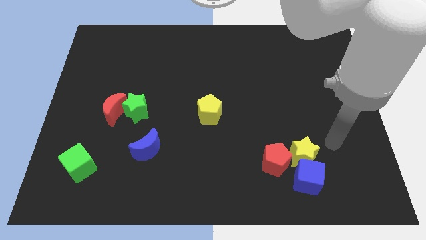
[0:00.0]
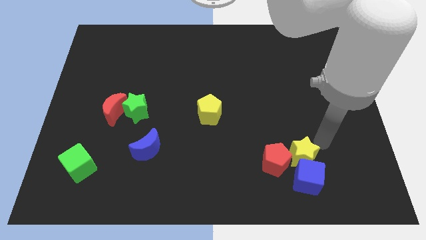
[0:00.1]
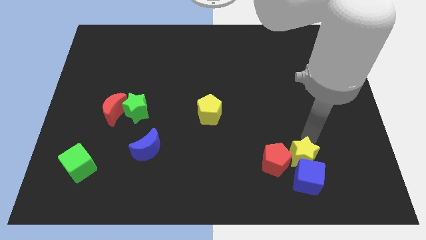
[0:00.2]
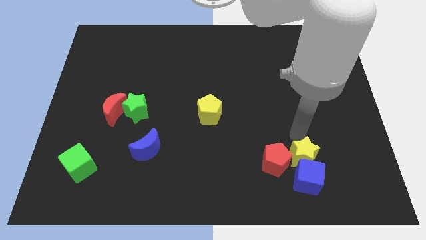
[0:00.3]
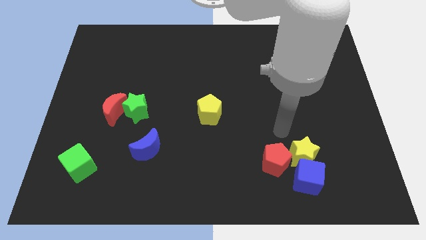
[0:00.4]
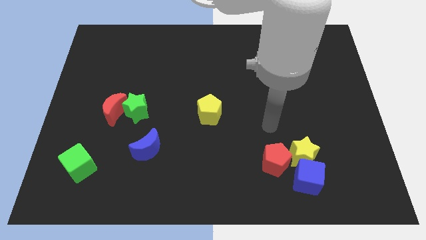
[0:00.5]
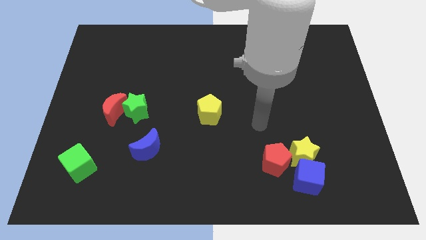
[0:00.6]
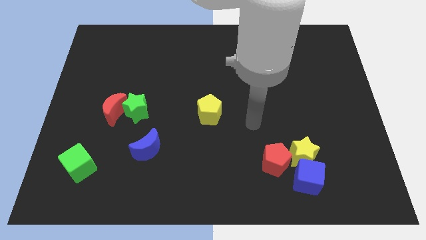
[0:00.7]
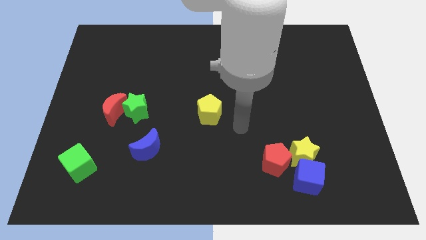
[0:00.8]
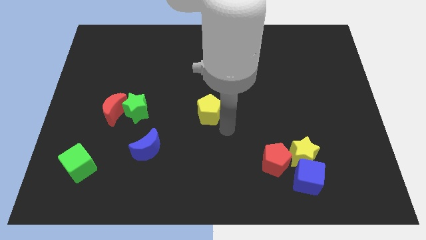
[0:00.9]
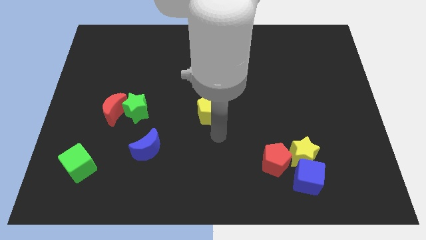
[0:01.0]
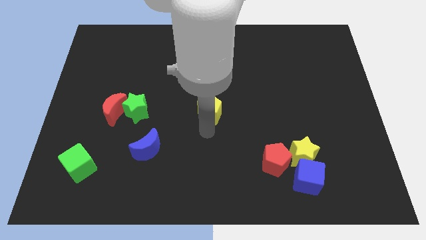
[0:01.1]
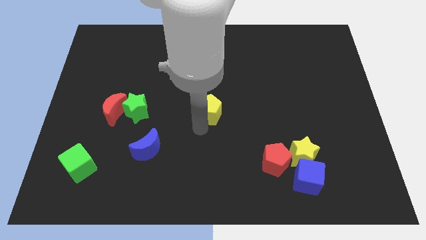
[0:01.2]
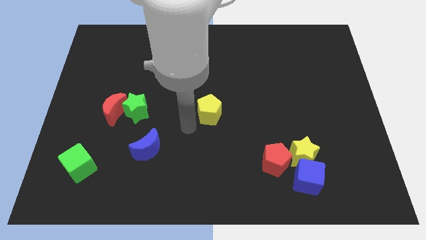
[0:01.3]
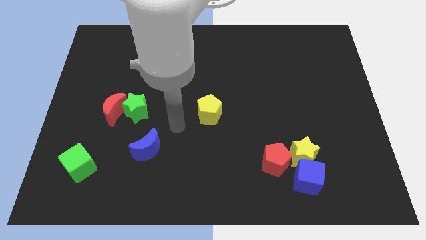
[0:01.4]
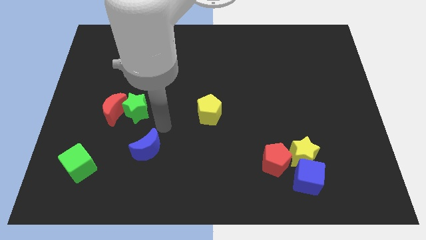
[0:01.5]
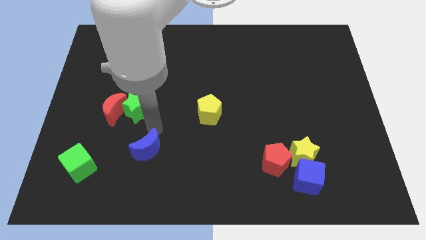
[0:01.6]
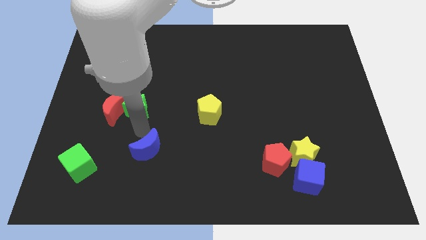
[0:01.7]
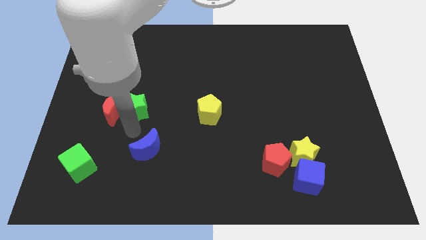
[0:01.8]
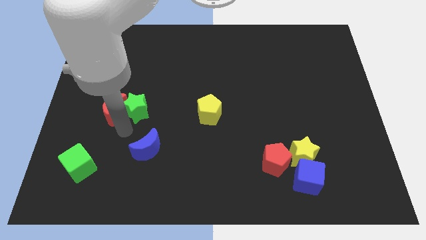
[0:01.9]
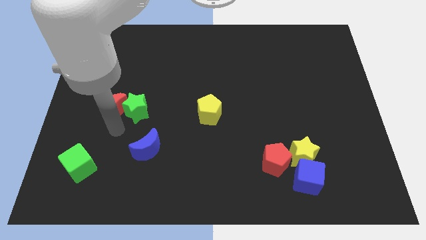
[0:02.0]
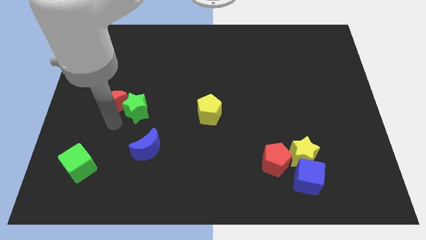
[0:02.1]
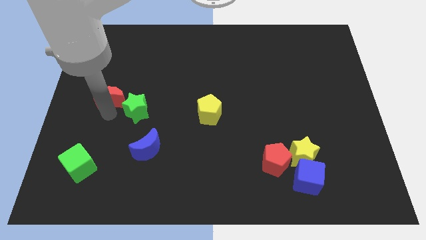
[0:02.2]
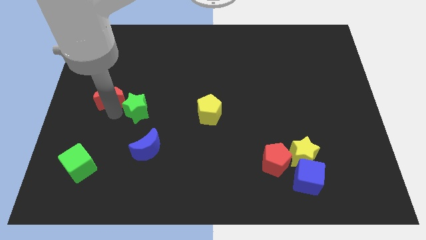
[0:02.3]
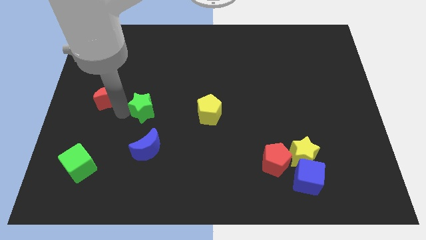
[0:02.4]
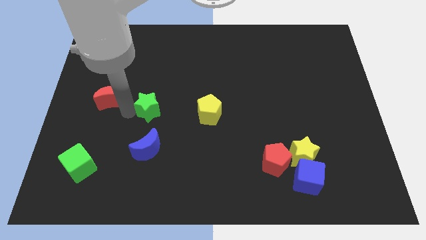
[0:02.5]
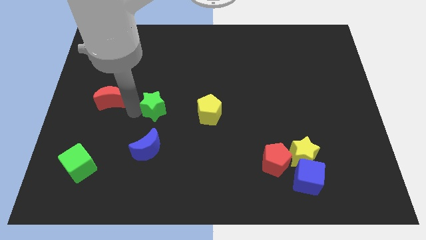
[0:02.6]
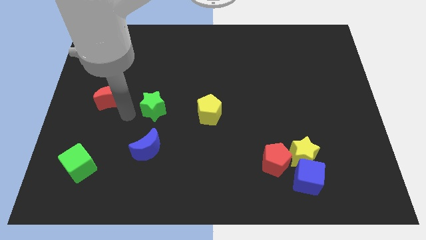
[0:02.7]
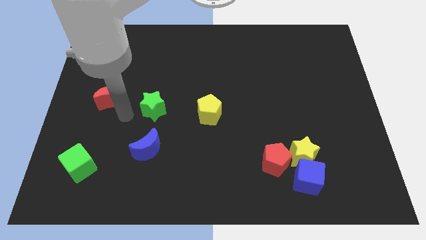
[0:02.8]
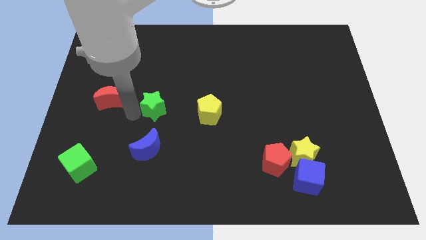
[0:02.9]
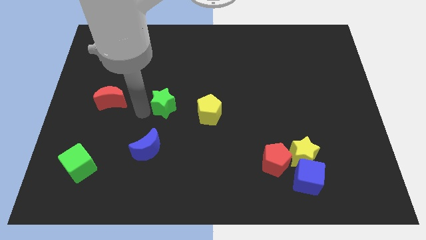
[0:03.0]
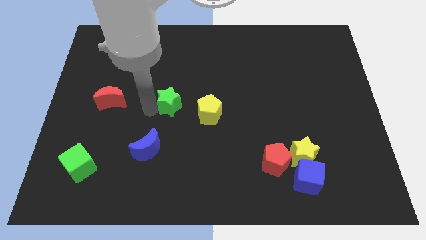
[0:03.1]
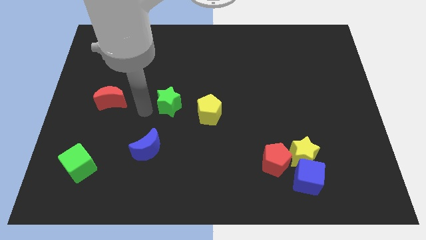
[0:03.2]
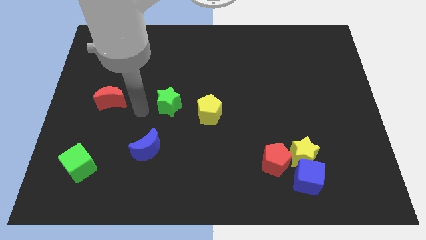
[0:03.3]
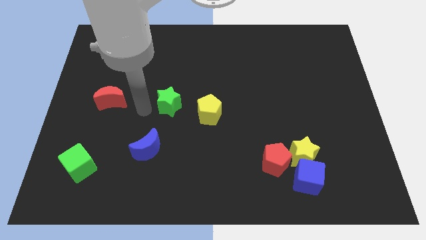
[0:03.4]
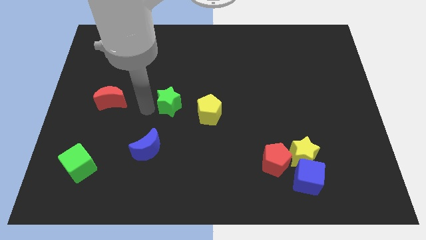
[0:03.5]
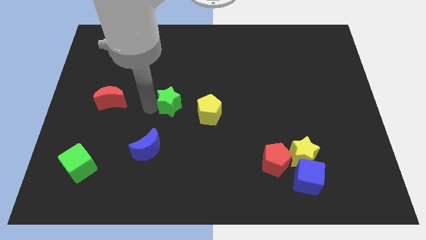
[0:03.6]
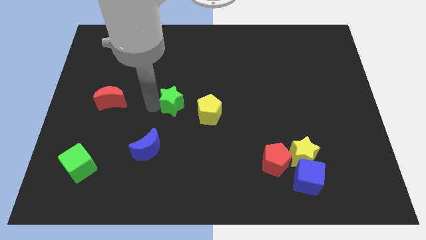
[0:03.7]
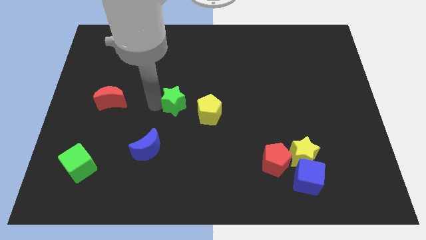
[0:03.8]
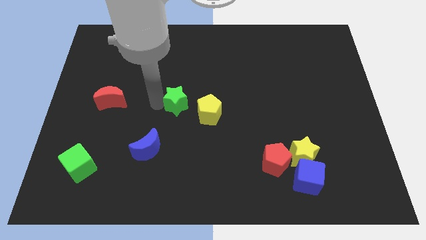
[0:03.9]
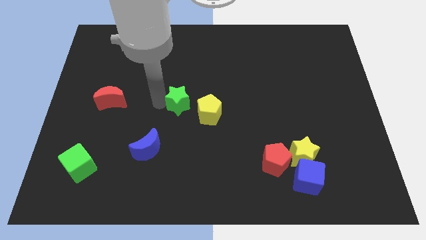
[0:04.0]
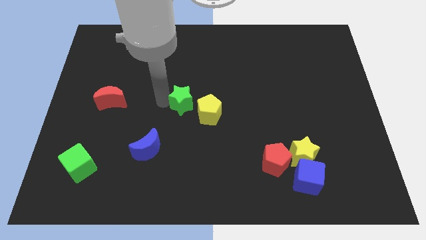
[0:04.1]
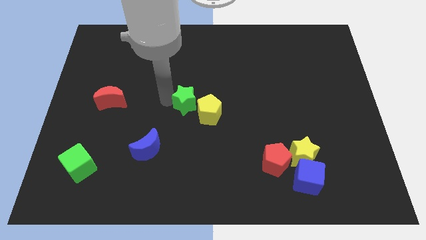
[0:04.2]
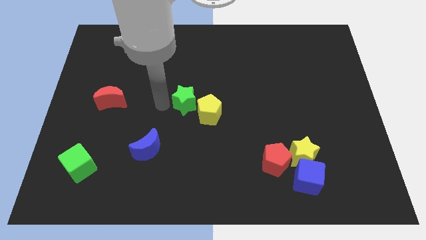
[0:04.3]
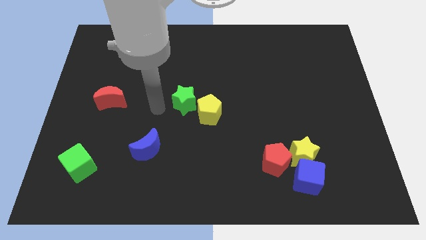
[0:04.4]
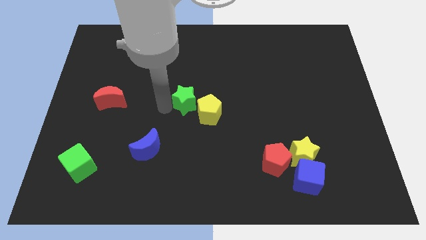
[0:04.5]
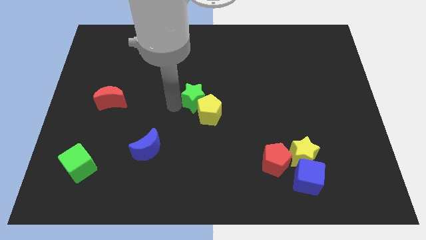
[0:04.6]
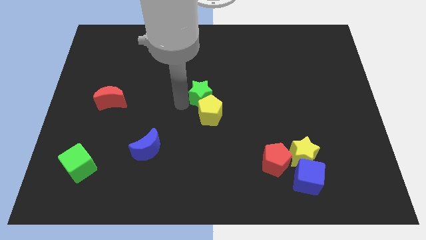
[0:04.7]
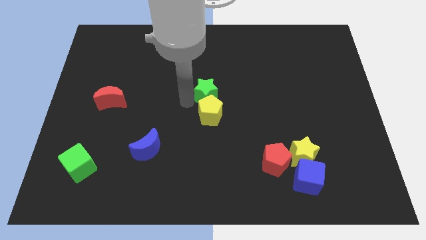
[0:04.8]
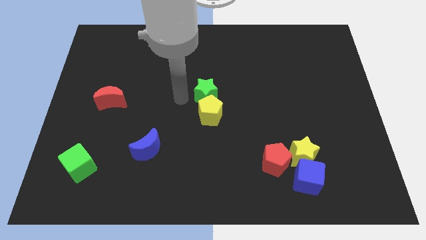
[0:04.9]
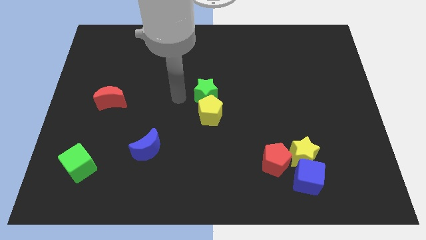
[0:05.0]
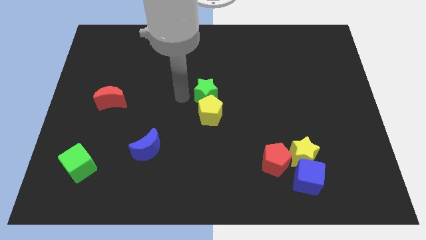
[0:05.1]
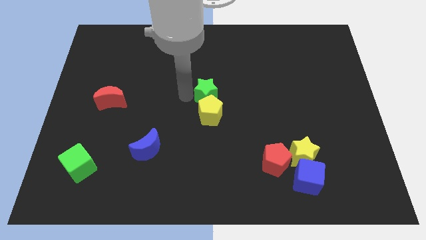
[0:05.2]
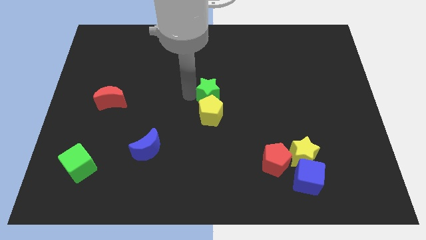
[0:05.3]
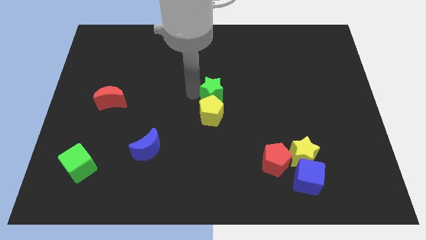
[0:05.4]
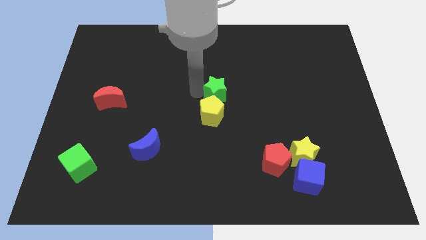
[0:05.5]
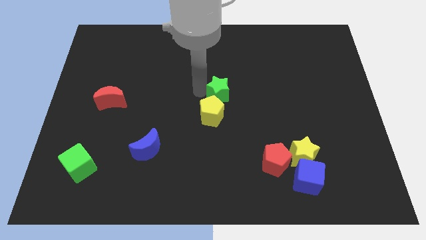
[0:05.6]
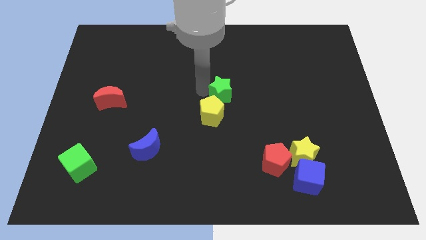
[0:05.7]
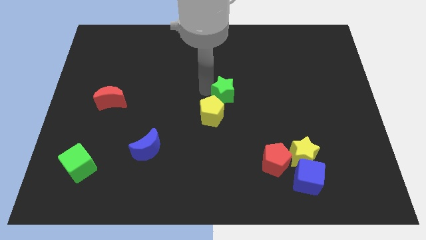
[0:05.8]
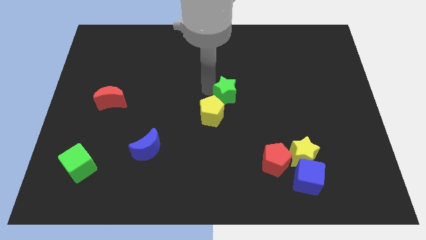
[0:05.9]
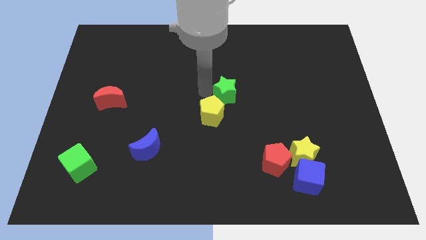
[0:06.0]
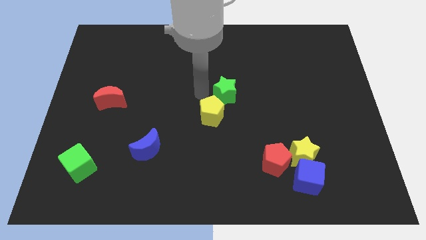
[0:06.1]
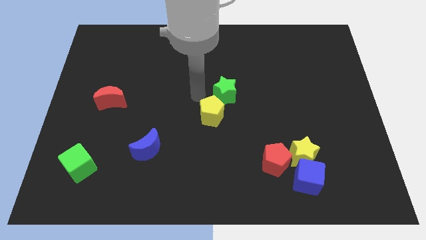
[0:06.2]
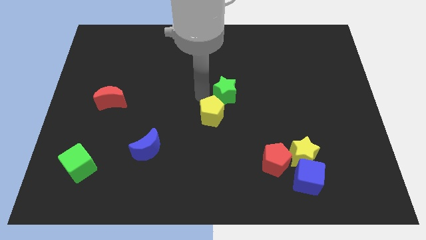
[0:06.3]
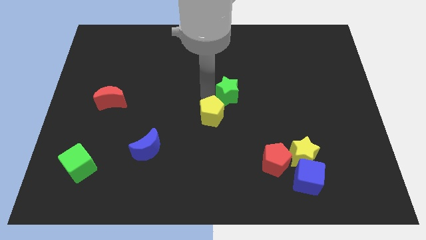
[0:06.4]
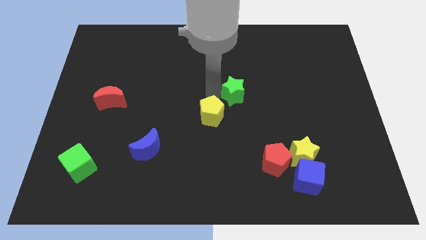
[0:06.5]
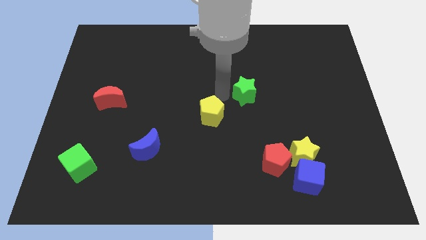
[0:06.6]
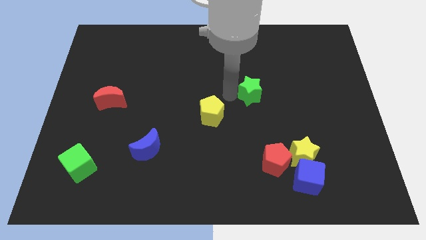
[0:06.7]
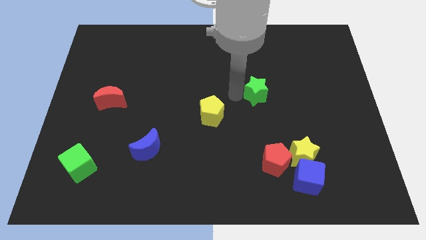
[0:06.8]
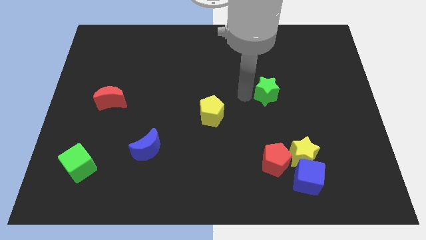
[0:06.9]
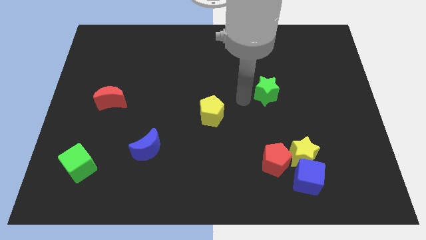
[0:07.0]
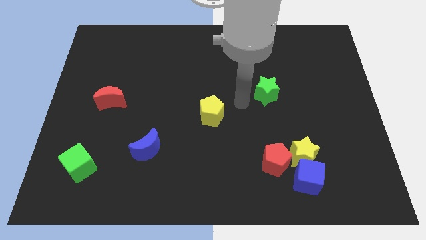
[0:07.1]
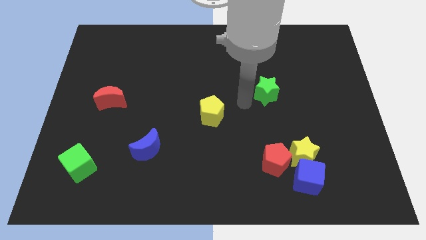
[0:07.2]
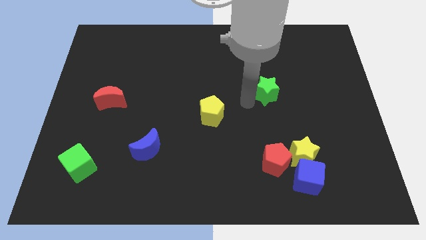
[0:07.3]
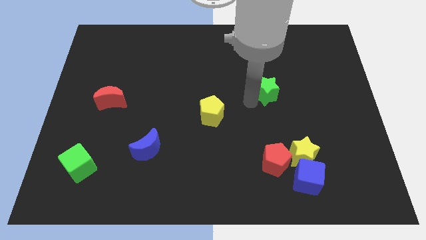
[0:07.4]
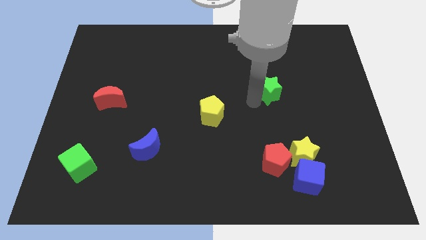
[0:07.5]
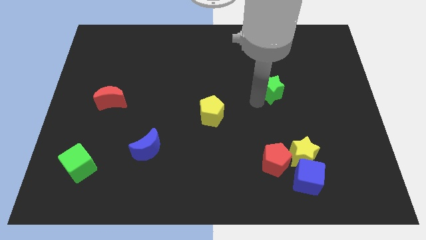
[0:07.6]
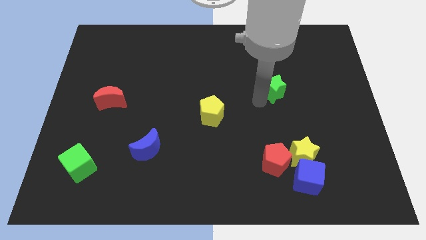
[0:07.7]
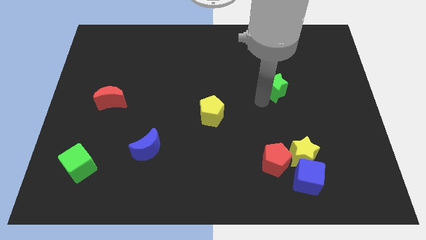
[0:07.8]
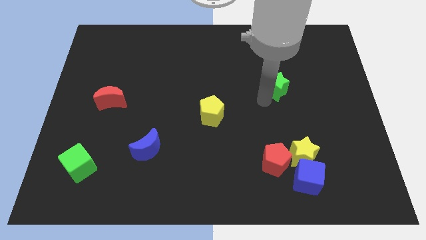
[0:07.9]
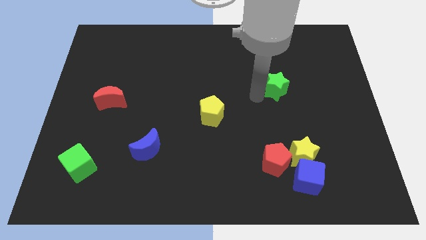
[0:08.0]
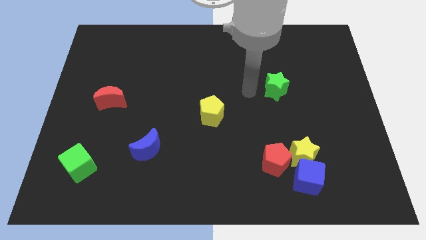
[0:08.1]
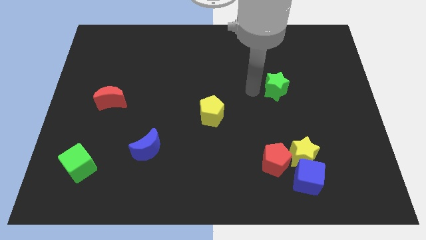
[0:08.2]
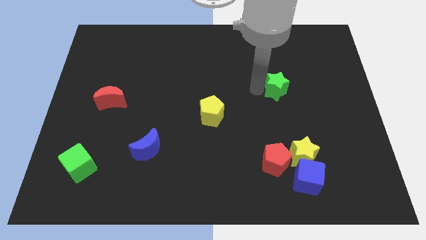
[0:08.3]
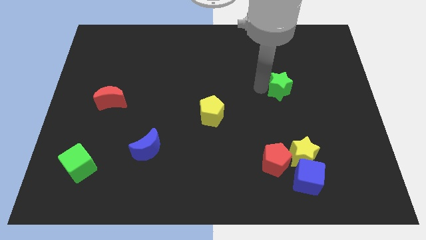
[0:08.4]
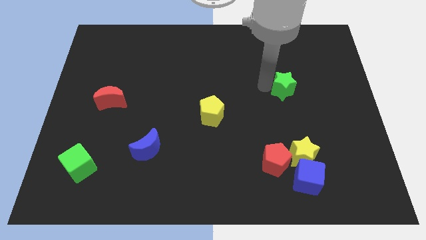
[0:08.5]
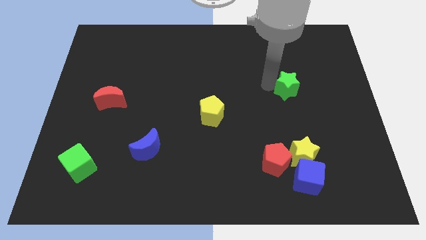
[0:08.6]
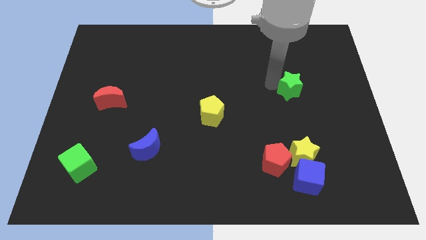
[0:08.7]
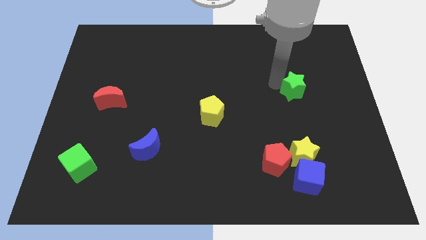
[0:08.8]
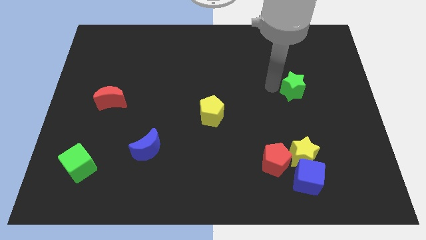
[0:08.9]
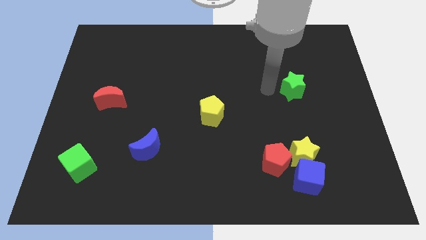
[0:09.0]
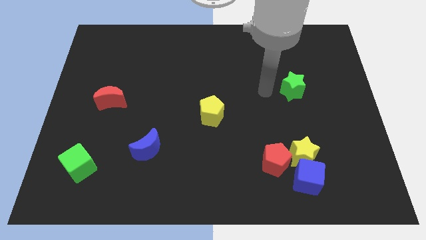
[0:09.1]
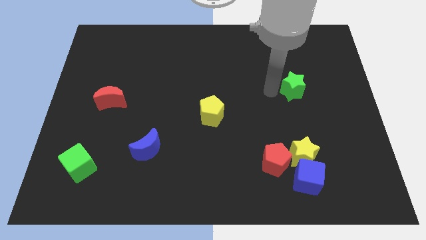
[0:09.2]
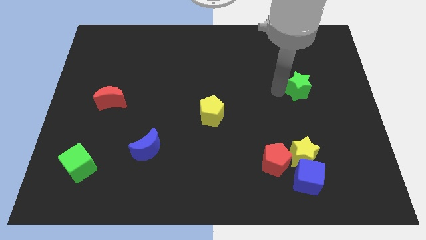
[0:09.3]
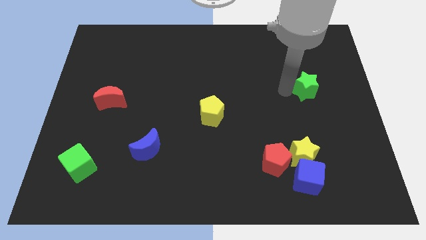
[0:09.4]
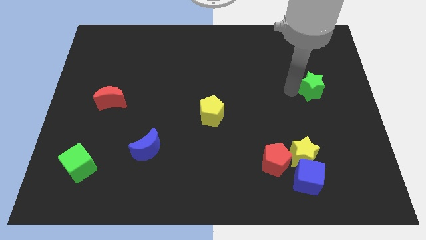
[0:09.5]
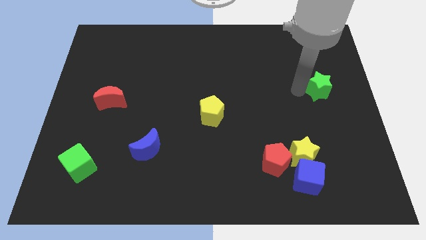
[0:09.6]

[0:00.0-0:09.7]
slide the green star to the right side
